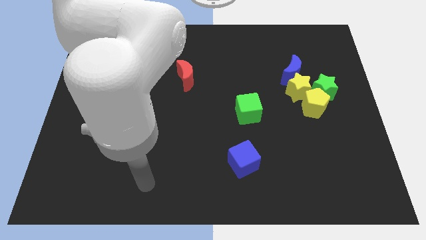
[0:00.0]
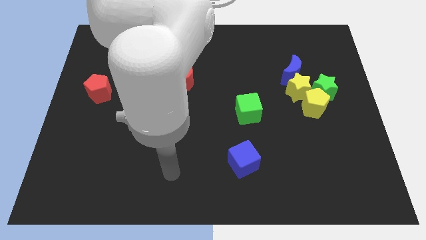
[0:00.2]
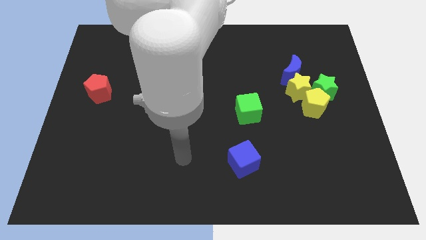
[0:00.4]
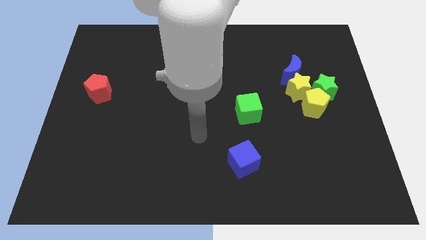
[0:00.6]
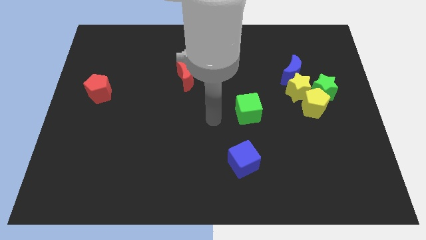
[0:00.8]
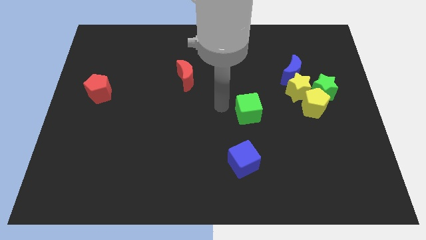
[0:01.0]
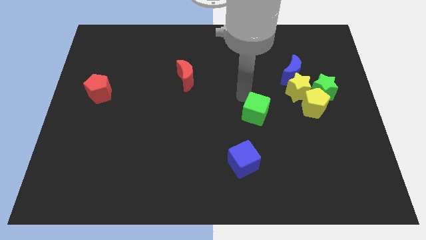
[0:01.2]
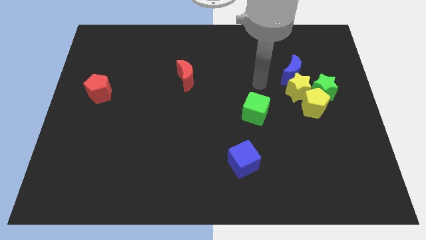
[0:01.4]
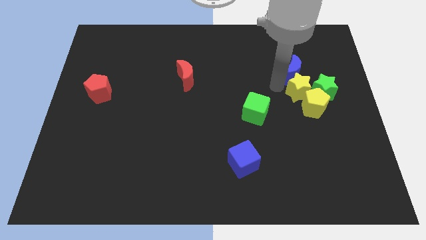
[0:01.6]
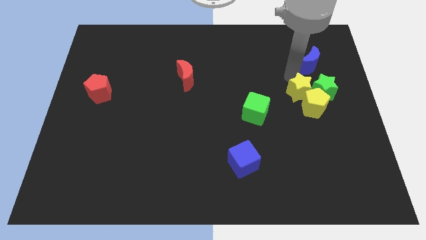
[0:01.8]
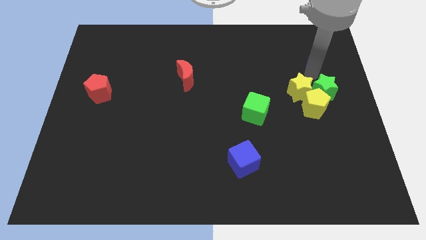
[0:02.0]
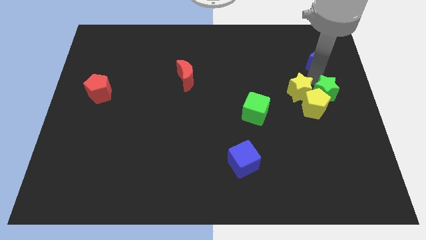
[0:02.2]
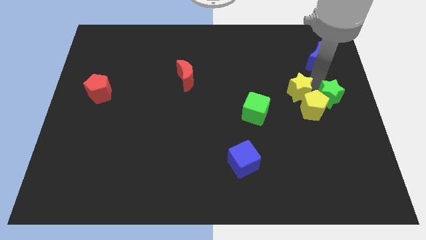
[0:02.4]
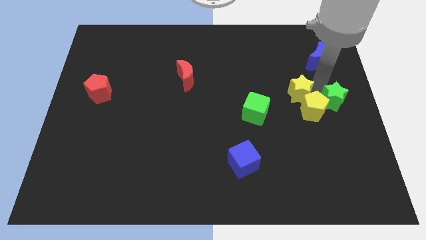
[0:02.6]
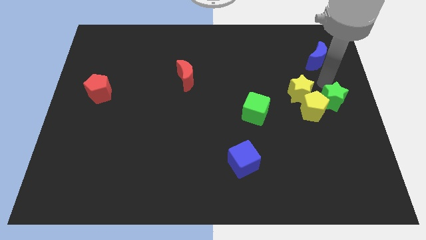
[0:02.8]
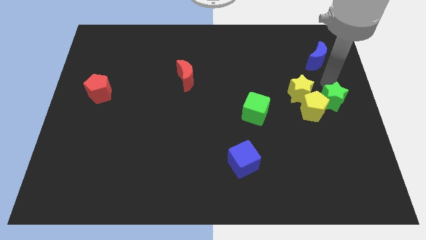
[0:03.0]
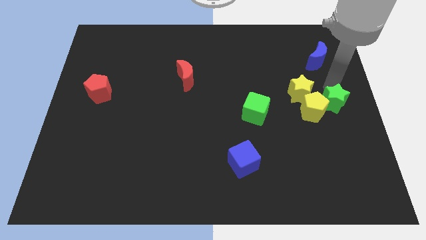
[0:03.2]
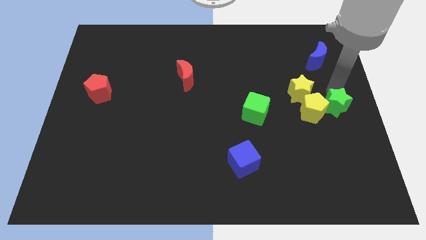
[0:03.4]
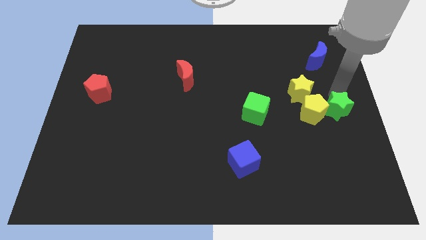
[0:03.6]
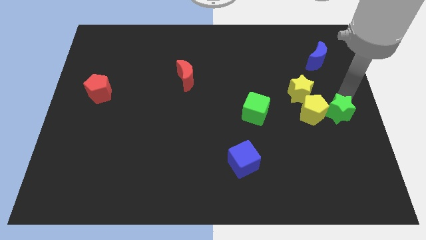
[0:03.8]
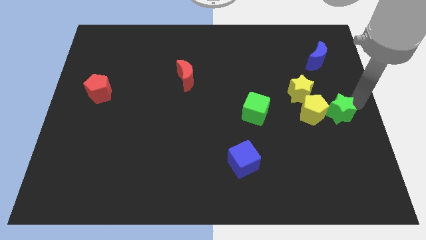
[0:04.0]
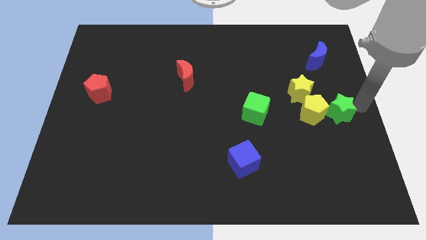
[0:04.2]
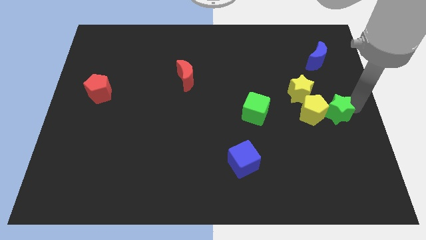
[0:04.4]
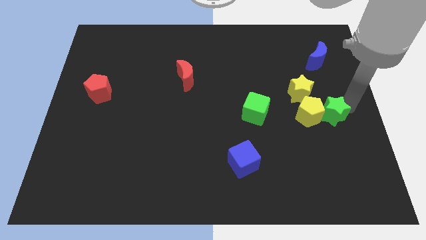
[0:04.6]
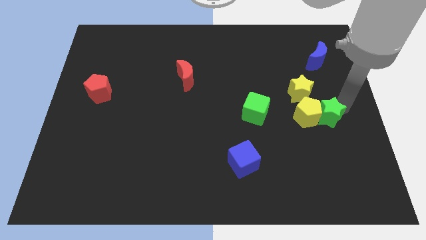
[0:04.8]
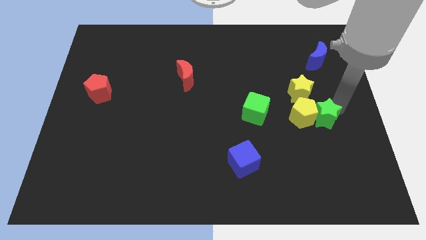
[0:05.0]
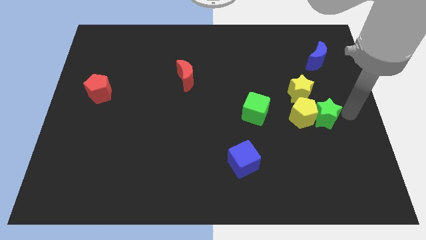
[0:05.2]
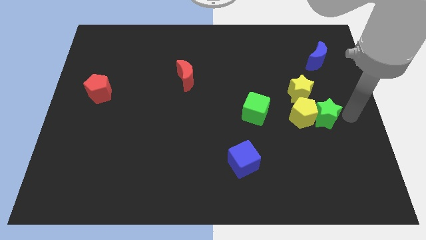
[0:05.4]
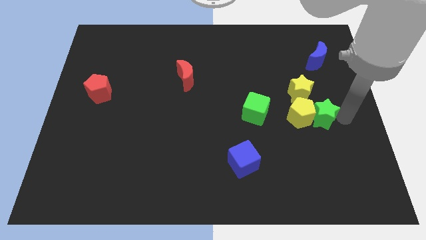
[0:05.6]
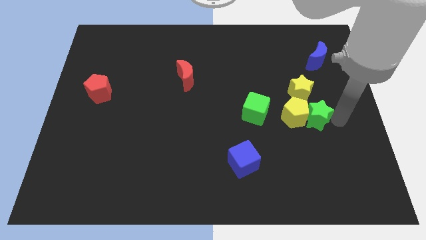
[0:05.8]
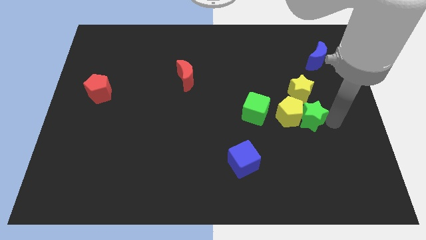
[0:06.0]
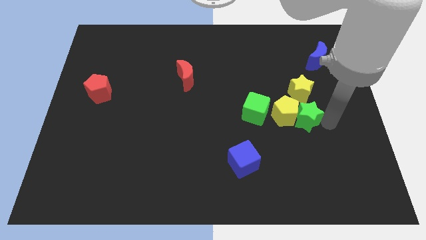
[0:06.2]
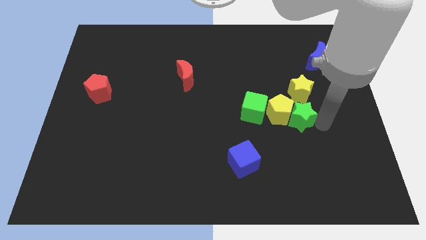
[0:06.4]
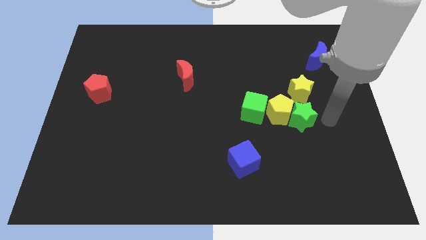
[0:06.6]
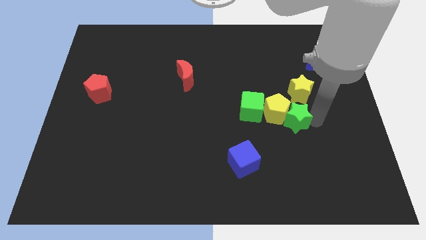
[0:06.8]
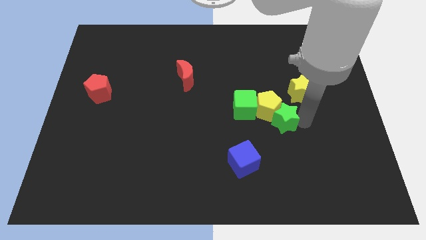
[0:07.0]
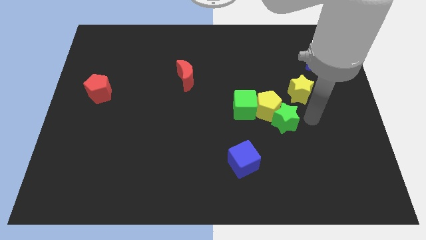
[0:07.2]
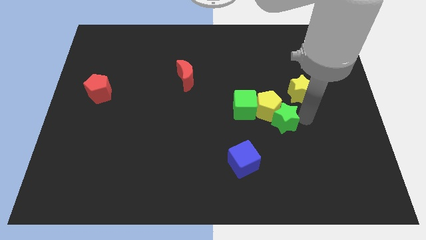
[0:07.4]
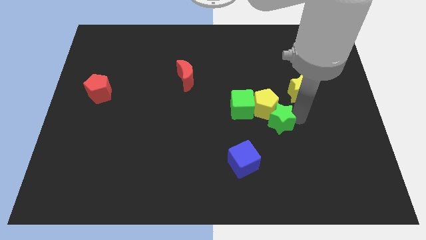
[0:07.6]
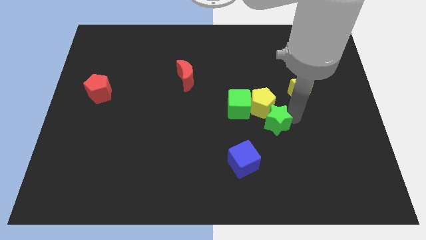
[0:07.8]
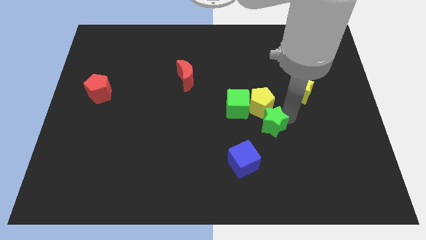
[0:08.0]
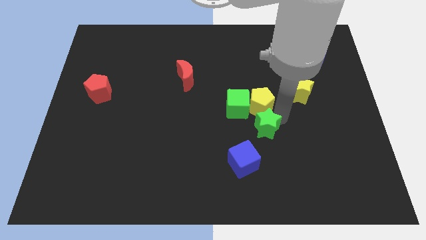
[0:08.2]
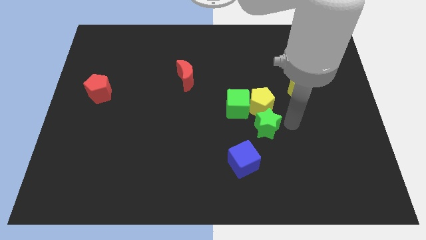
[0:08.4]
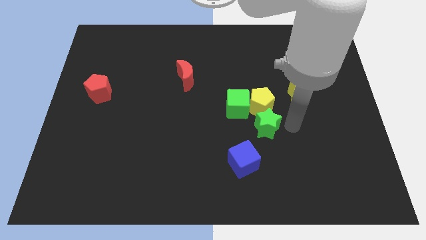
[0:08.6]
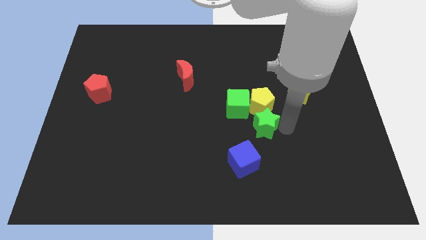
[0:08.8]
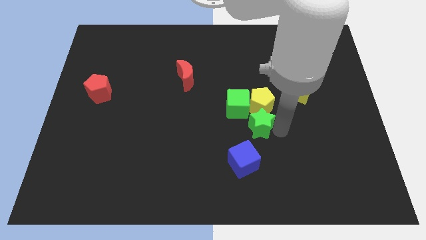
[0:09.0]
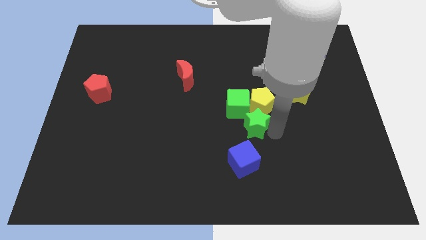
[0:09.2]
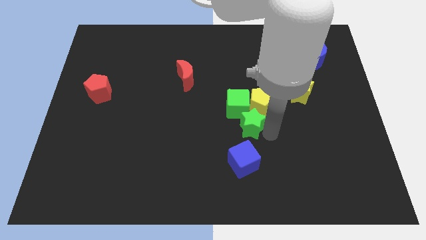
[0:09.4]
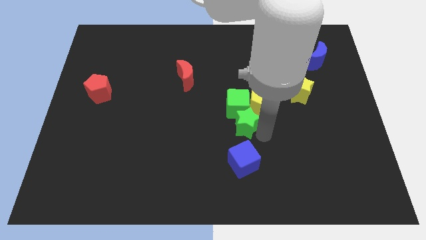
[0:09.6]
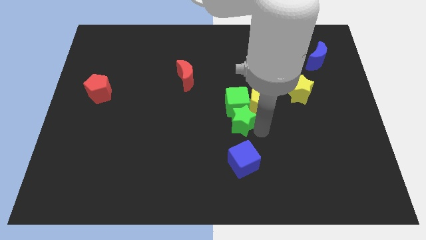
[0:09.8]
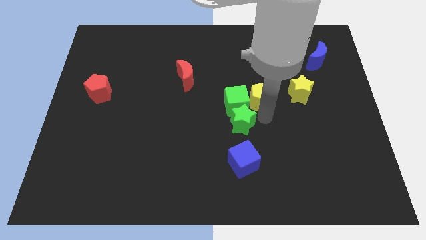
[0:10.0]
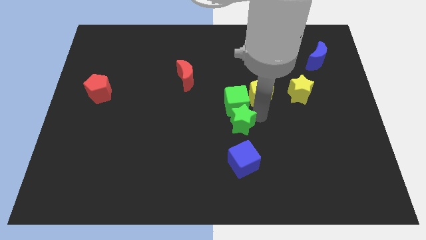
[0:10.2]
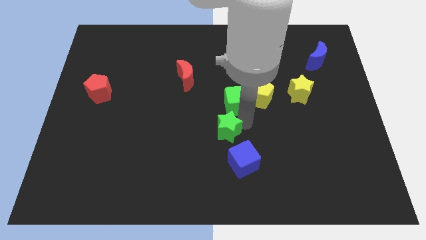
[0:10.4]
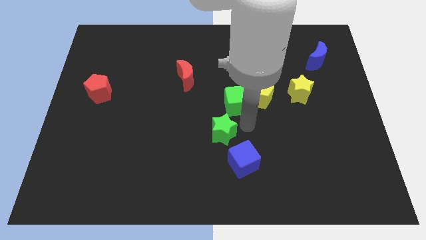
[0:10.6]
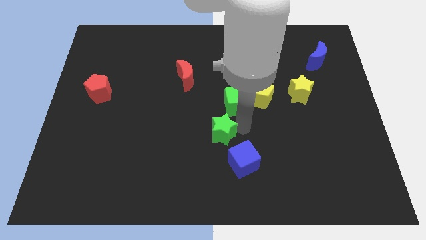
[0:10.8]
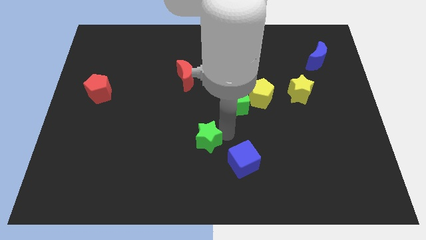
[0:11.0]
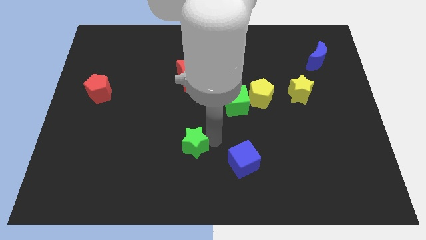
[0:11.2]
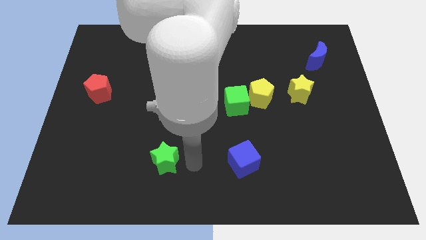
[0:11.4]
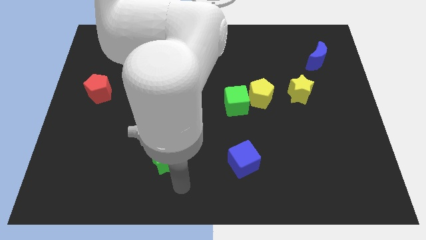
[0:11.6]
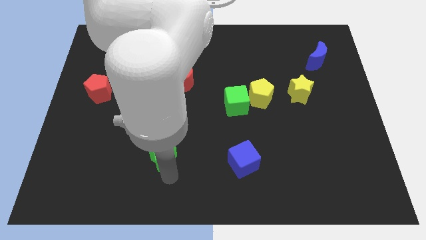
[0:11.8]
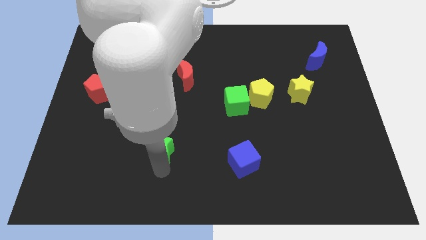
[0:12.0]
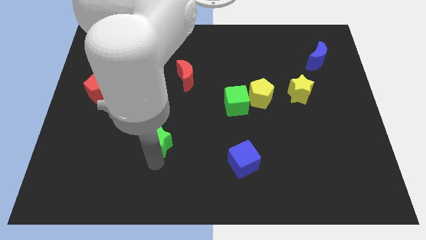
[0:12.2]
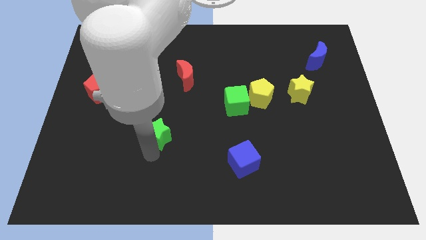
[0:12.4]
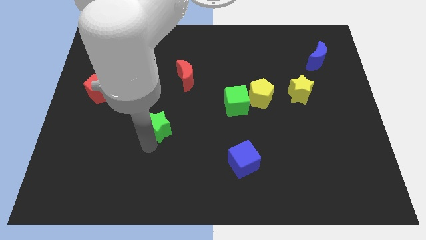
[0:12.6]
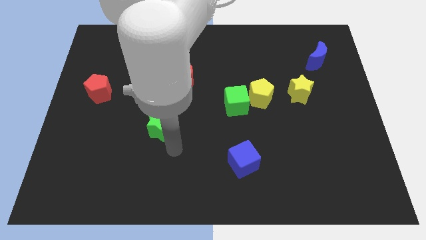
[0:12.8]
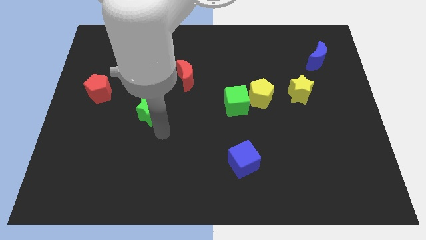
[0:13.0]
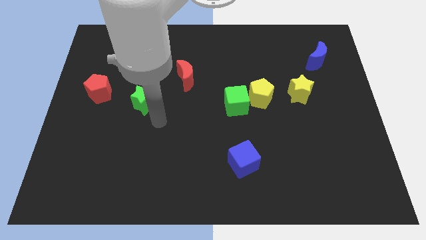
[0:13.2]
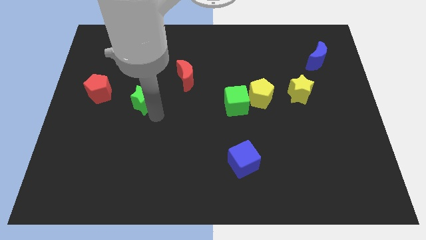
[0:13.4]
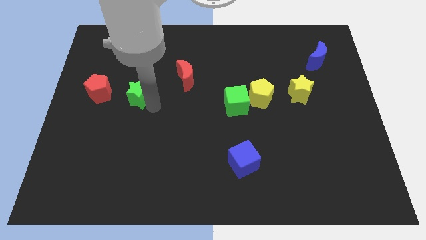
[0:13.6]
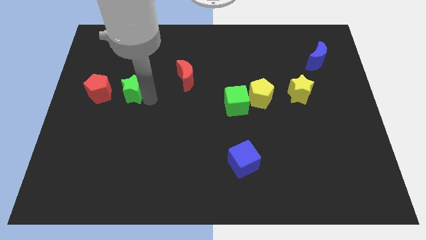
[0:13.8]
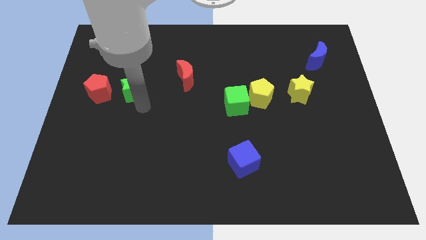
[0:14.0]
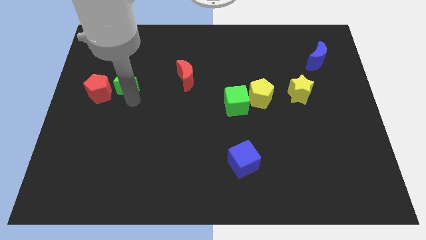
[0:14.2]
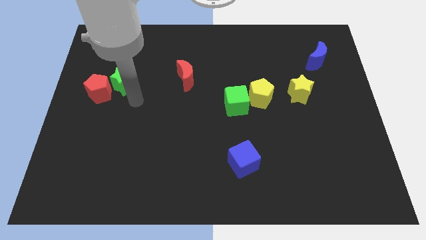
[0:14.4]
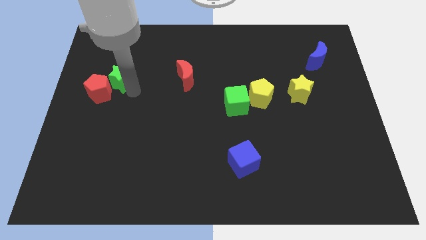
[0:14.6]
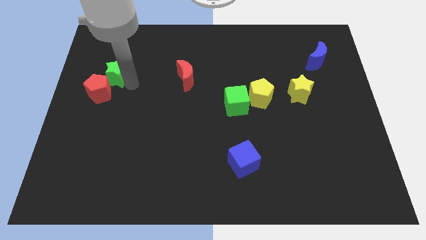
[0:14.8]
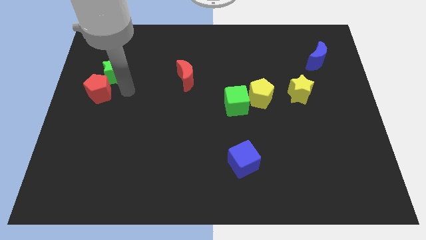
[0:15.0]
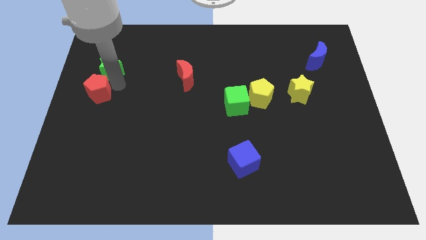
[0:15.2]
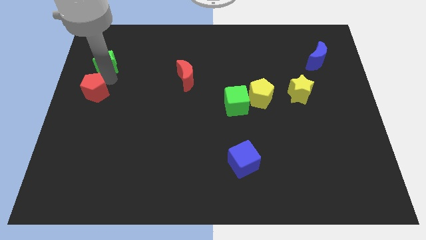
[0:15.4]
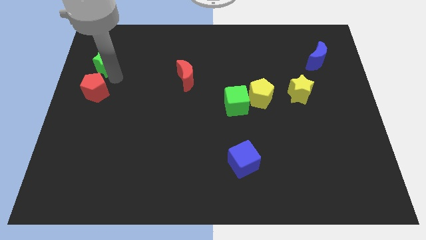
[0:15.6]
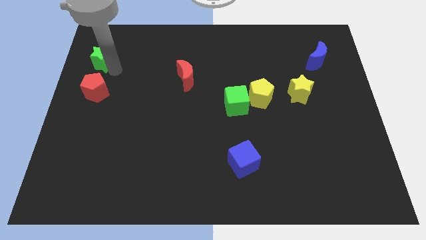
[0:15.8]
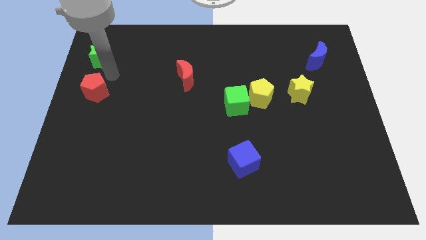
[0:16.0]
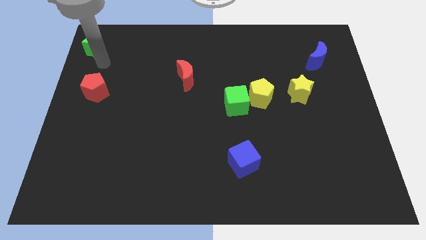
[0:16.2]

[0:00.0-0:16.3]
slide the green star to the top left
